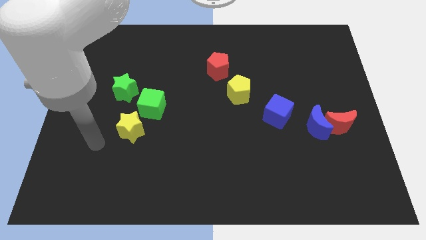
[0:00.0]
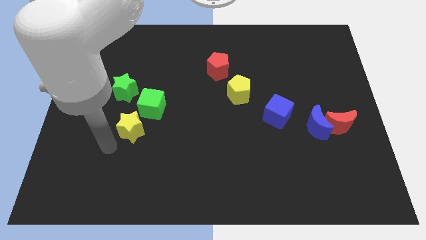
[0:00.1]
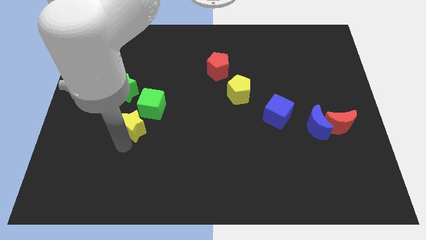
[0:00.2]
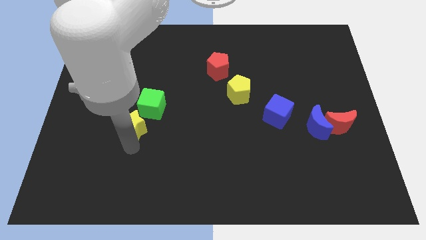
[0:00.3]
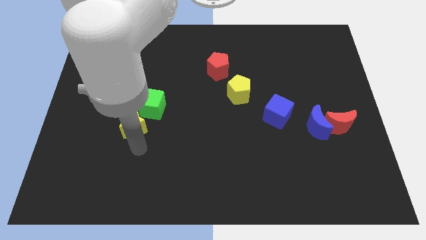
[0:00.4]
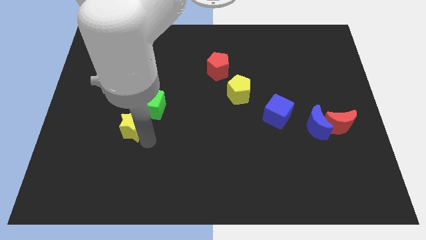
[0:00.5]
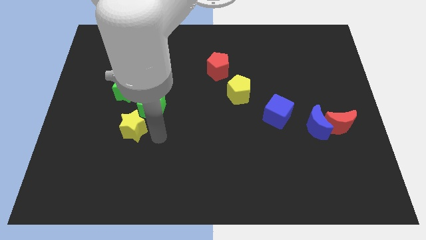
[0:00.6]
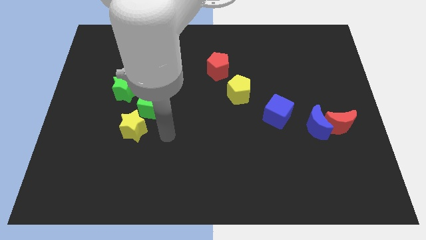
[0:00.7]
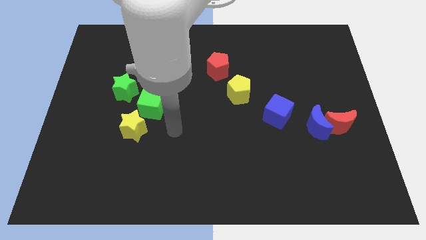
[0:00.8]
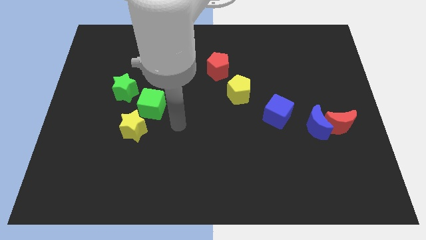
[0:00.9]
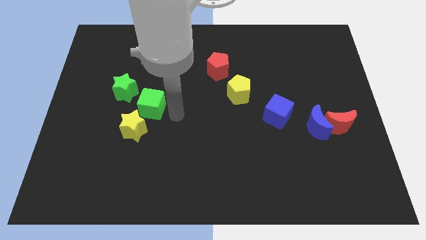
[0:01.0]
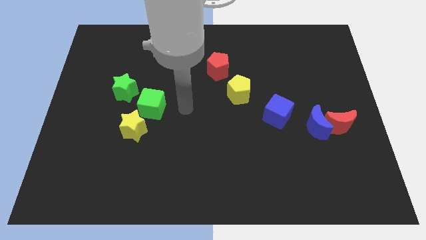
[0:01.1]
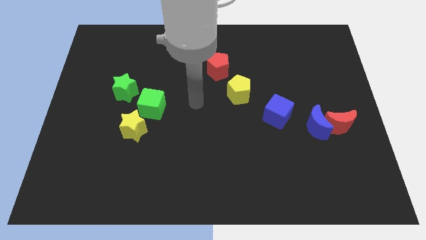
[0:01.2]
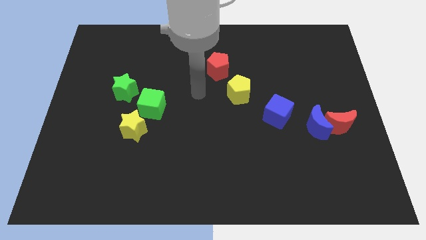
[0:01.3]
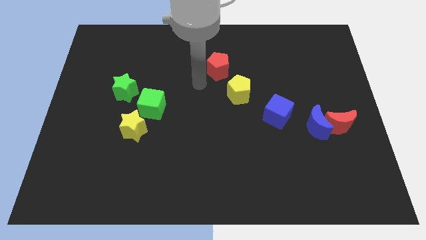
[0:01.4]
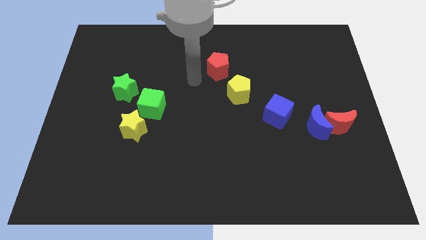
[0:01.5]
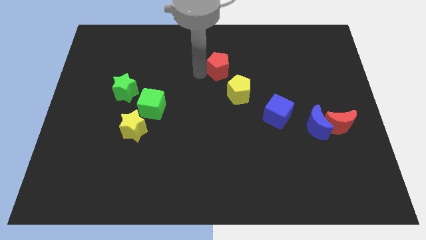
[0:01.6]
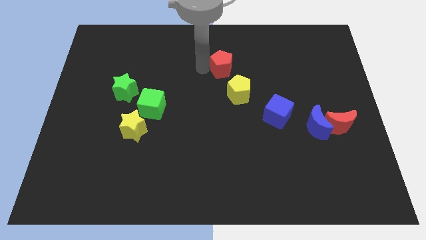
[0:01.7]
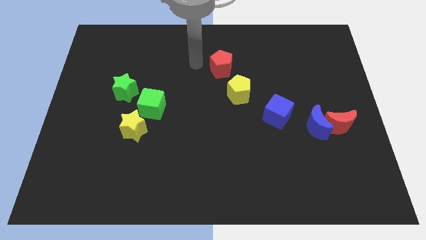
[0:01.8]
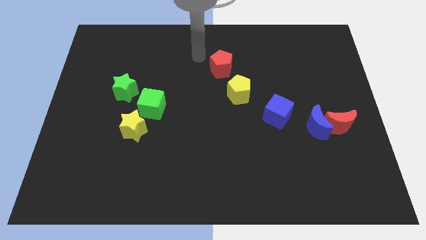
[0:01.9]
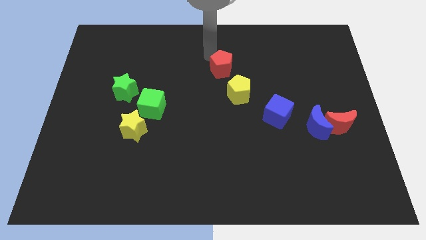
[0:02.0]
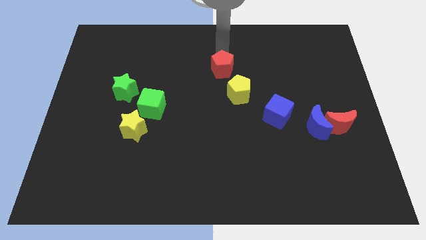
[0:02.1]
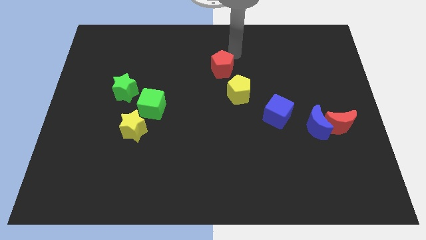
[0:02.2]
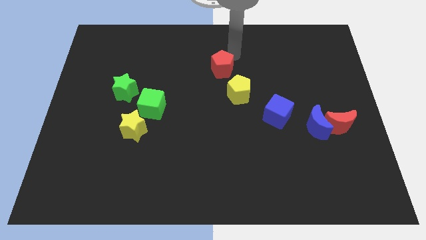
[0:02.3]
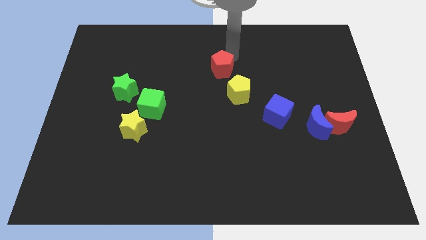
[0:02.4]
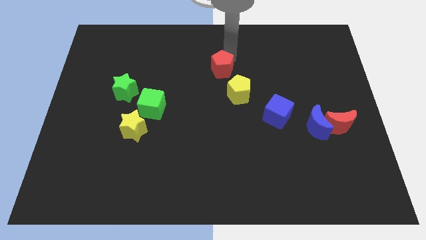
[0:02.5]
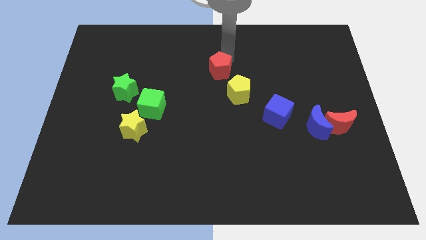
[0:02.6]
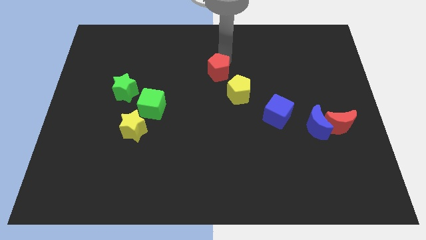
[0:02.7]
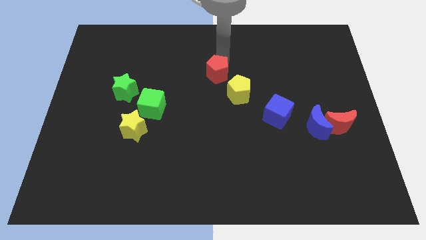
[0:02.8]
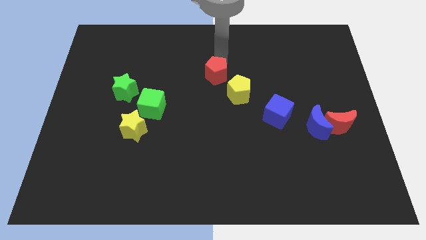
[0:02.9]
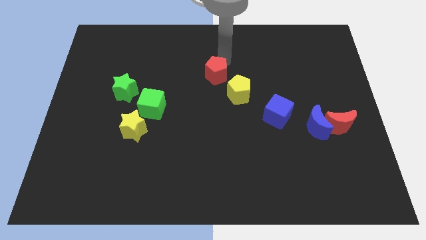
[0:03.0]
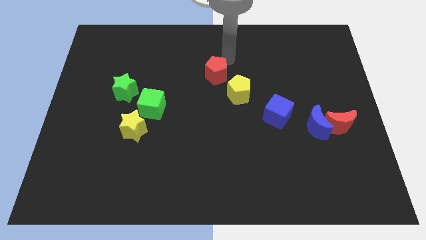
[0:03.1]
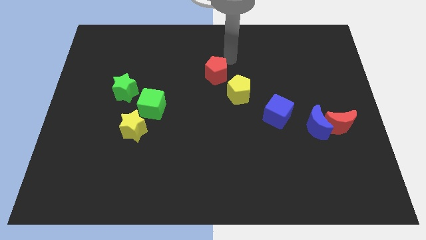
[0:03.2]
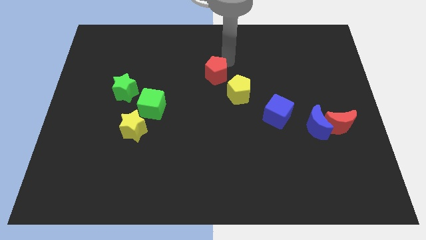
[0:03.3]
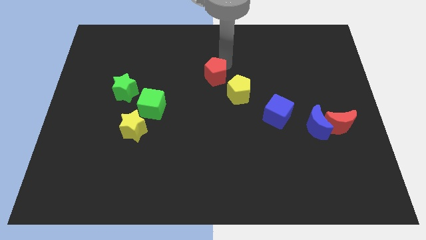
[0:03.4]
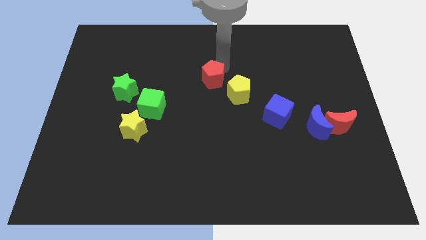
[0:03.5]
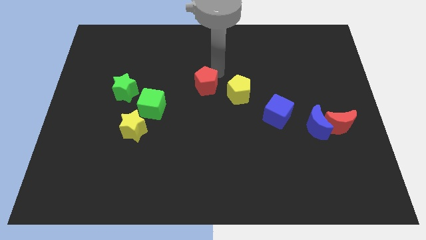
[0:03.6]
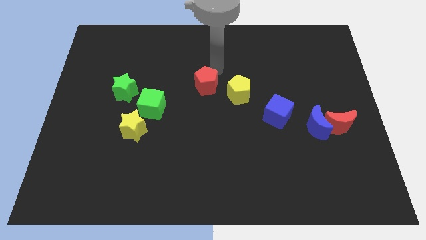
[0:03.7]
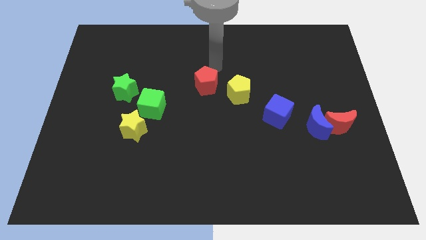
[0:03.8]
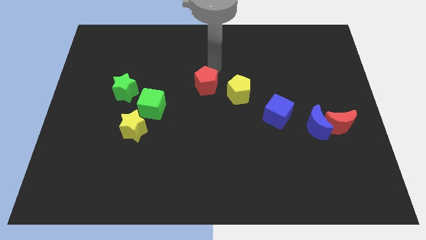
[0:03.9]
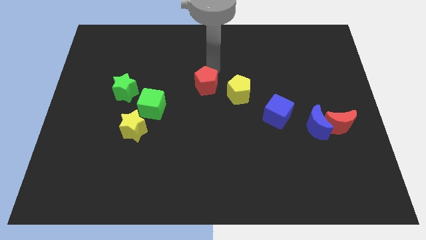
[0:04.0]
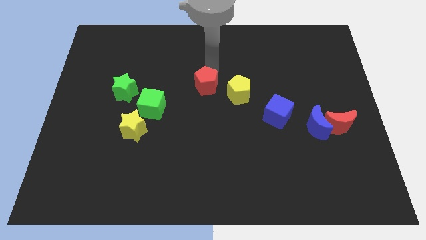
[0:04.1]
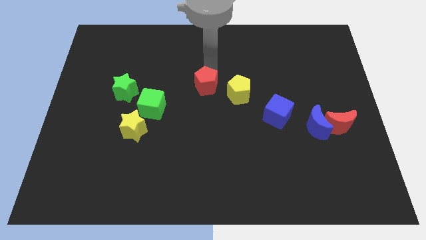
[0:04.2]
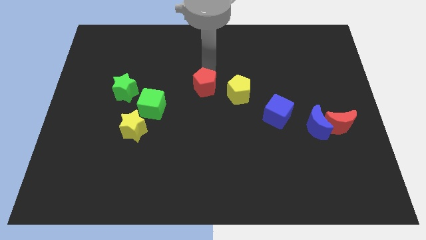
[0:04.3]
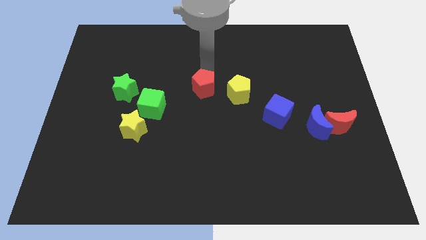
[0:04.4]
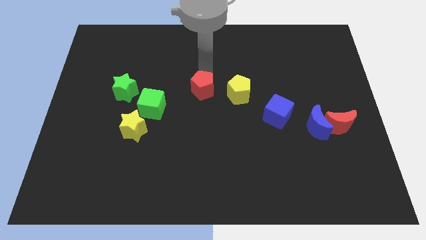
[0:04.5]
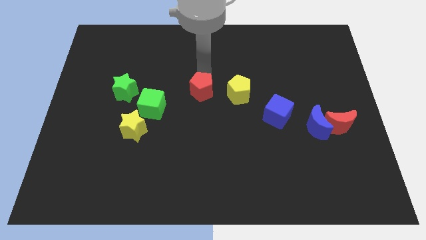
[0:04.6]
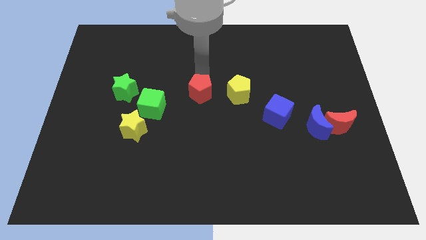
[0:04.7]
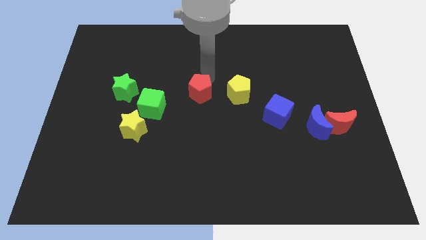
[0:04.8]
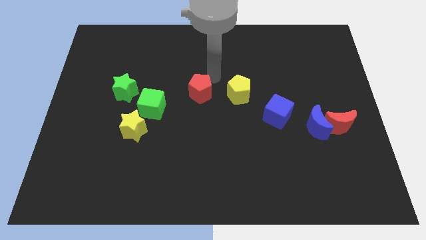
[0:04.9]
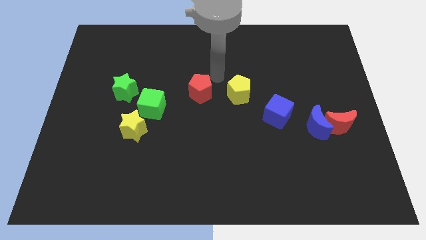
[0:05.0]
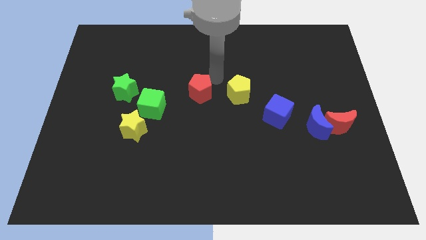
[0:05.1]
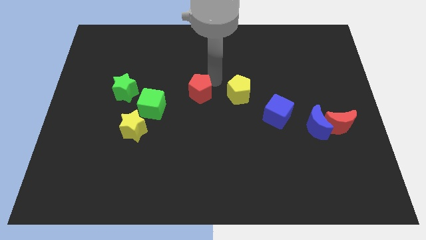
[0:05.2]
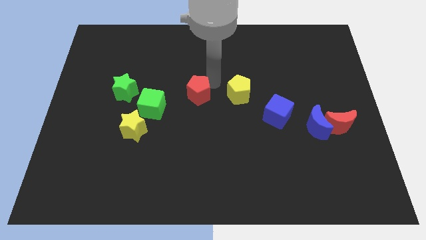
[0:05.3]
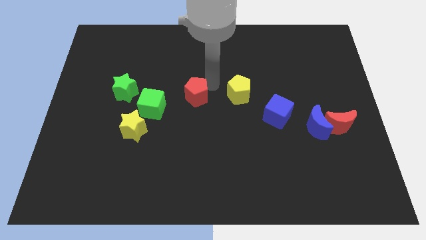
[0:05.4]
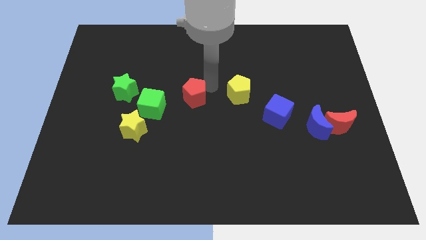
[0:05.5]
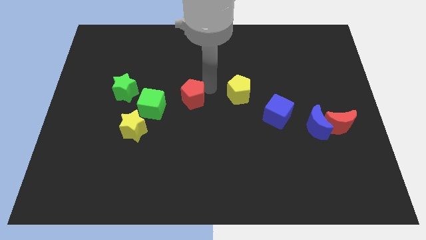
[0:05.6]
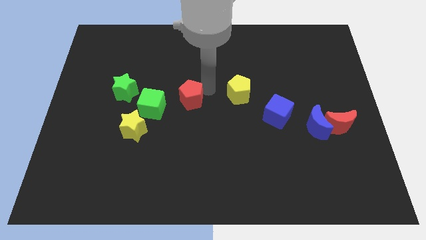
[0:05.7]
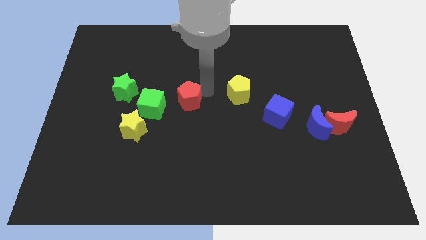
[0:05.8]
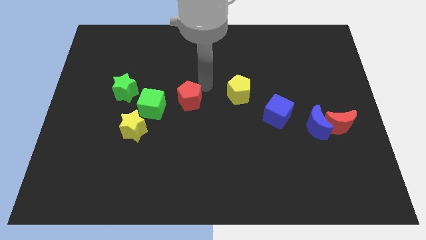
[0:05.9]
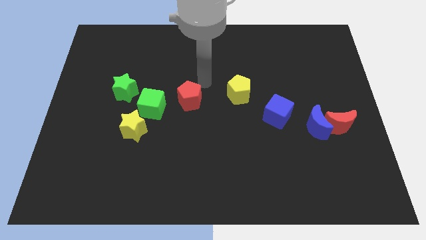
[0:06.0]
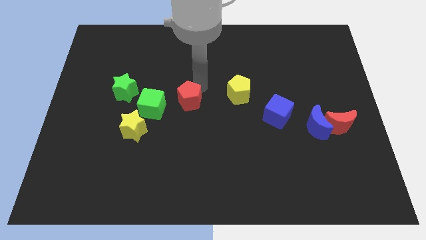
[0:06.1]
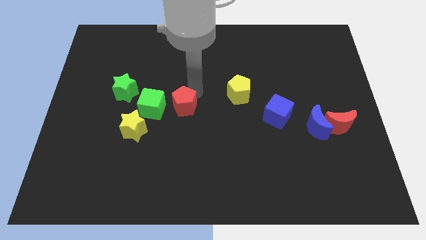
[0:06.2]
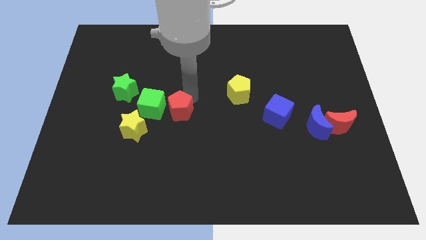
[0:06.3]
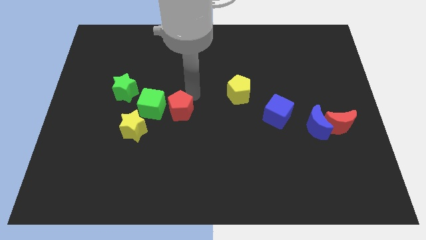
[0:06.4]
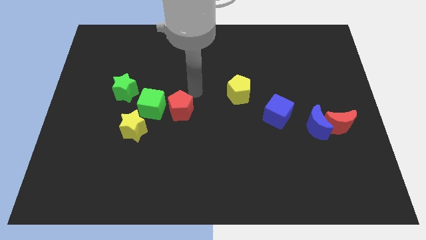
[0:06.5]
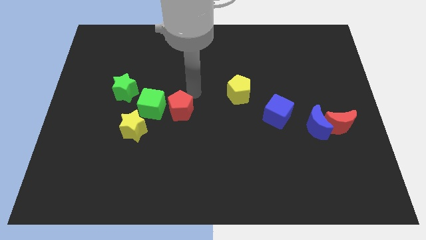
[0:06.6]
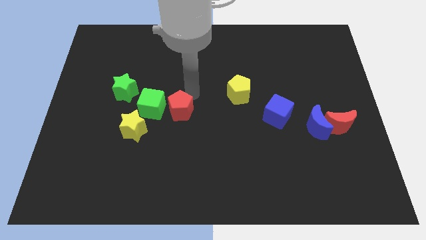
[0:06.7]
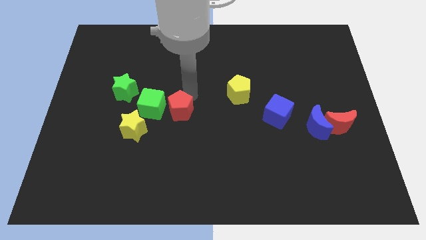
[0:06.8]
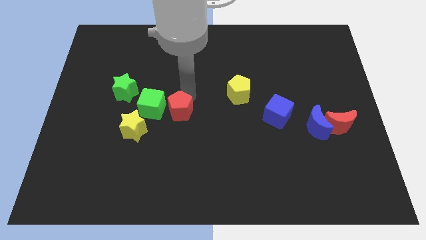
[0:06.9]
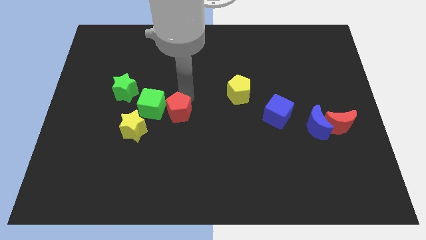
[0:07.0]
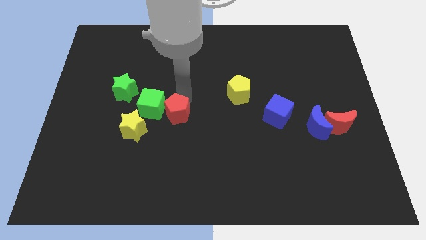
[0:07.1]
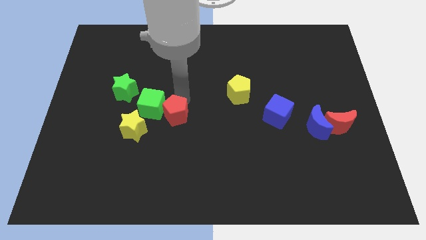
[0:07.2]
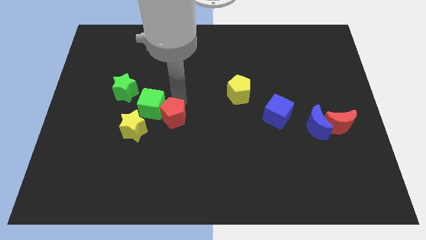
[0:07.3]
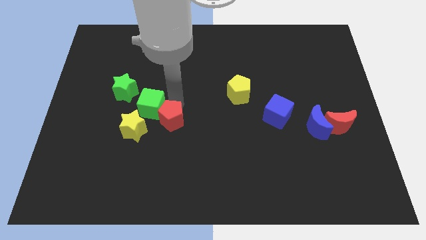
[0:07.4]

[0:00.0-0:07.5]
push the red pentagon below the green cube
